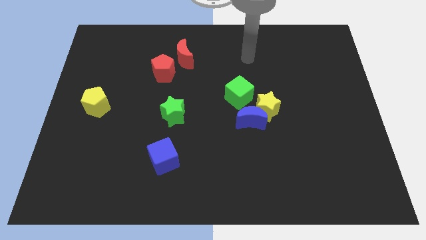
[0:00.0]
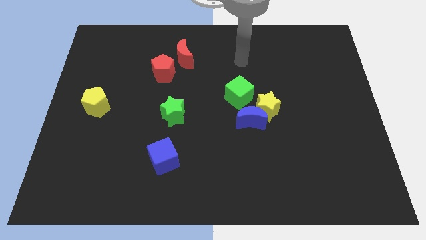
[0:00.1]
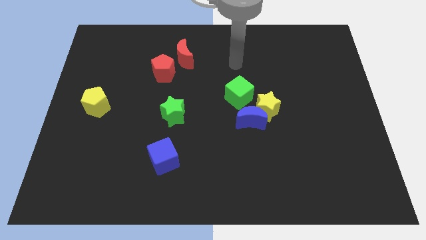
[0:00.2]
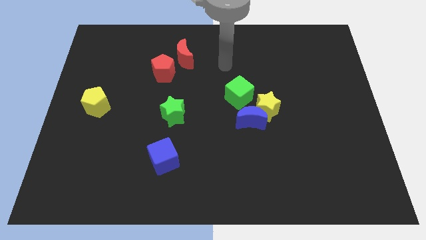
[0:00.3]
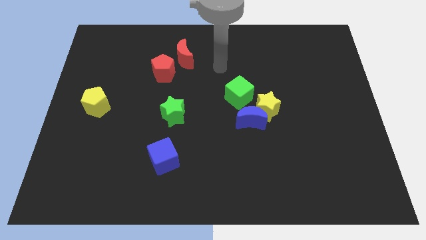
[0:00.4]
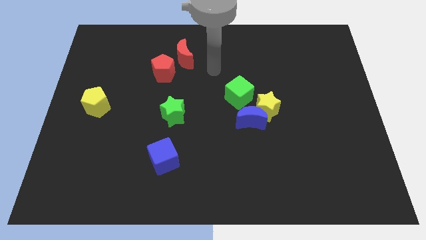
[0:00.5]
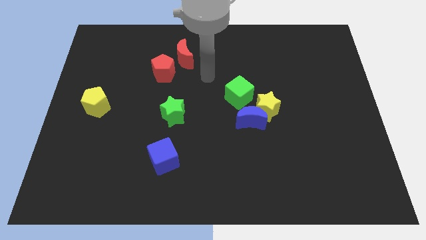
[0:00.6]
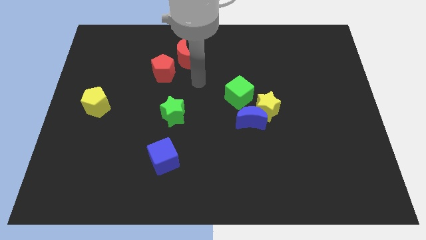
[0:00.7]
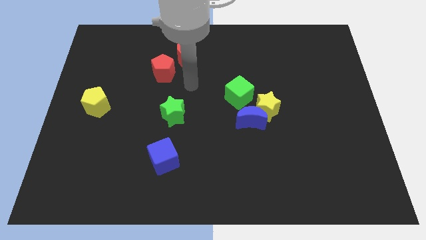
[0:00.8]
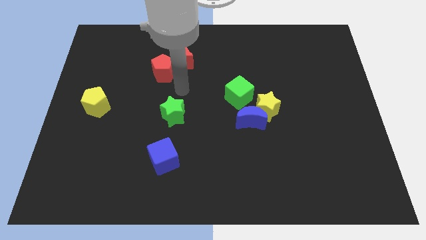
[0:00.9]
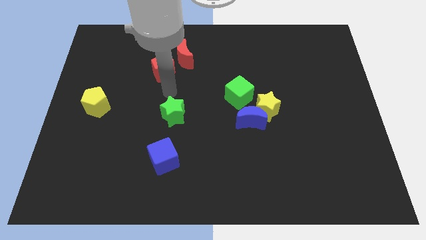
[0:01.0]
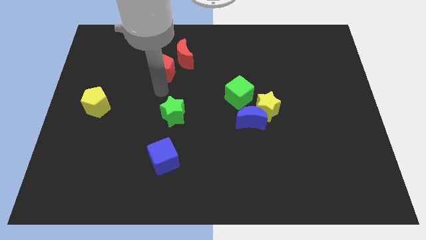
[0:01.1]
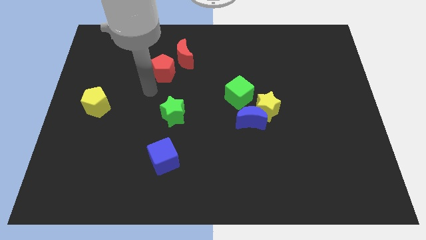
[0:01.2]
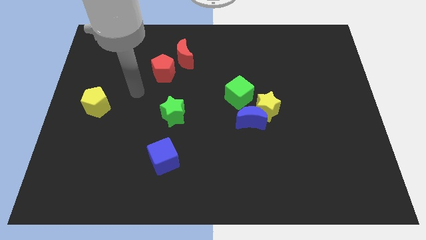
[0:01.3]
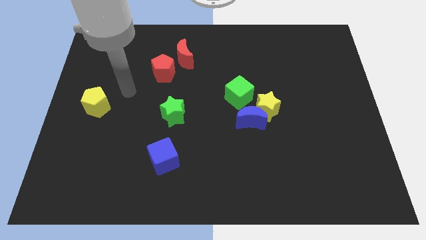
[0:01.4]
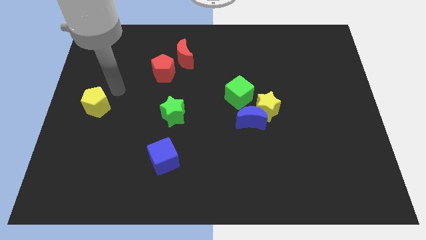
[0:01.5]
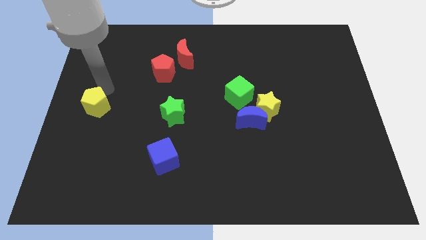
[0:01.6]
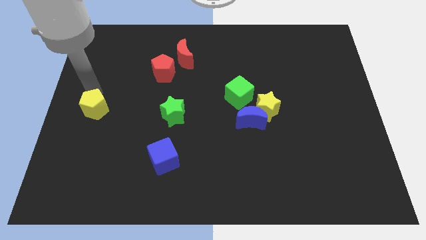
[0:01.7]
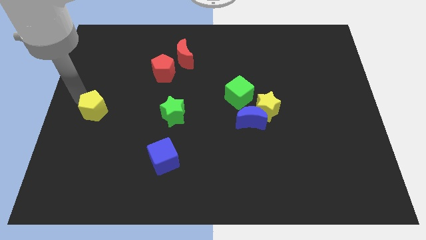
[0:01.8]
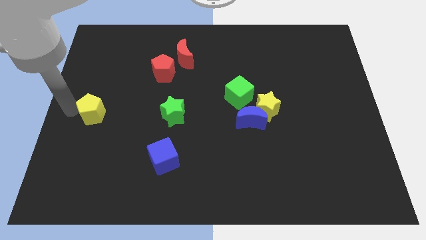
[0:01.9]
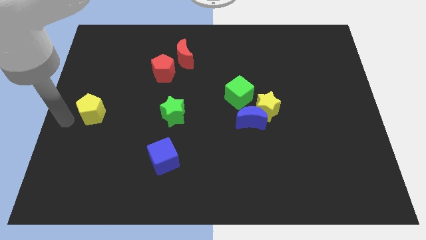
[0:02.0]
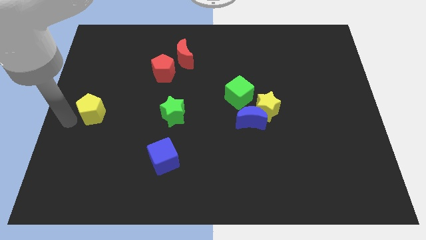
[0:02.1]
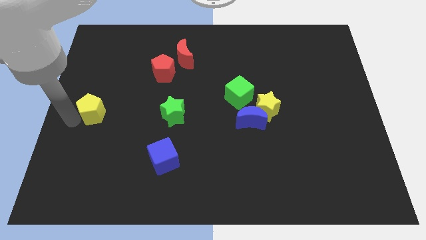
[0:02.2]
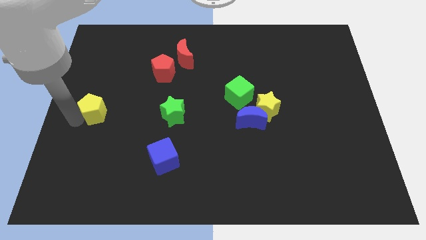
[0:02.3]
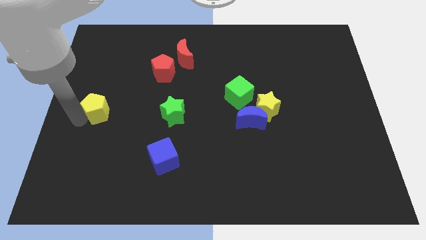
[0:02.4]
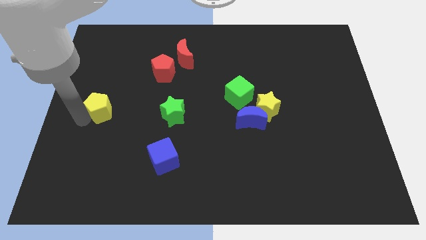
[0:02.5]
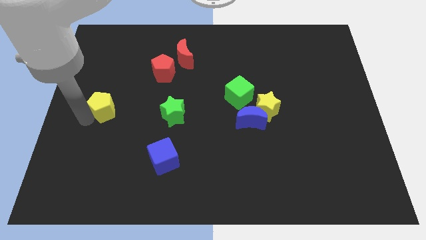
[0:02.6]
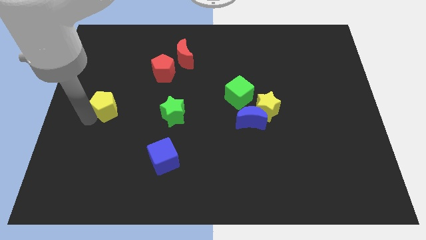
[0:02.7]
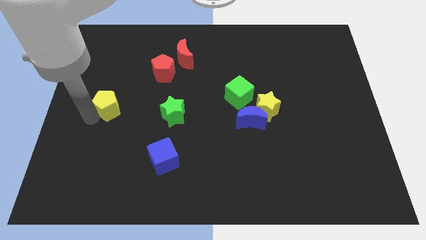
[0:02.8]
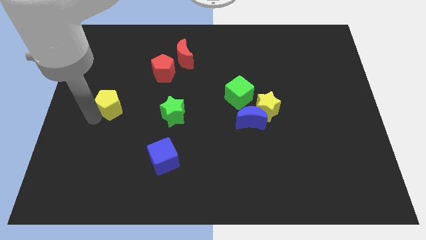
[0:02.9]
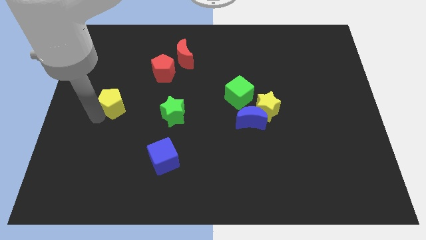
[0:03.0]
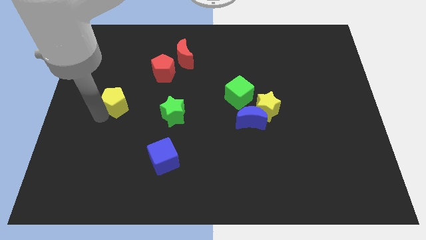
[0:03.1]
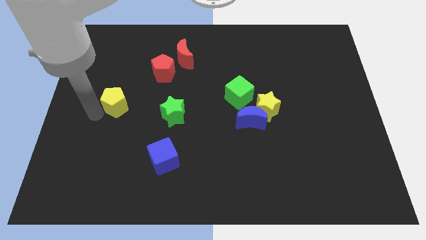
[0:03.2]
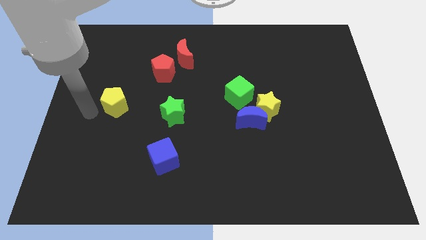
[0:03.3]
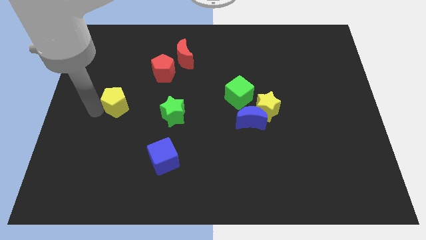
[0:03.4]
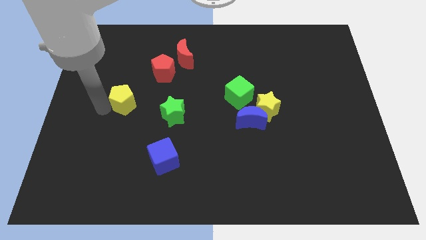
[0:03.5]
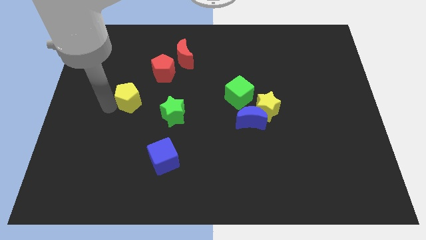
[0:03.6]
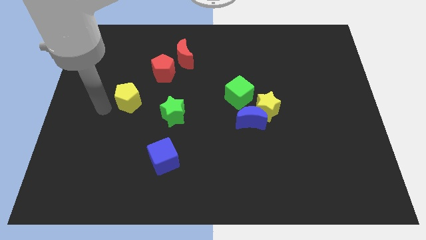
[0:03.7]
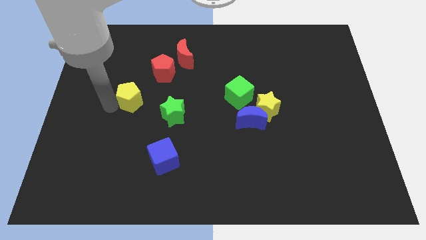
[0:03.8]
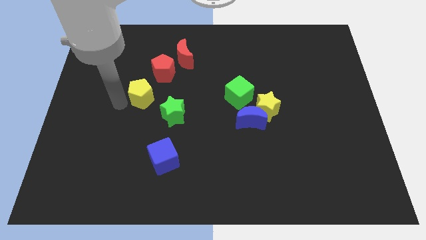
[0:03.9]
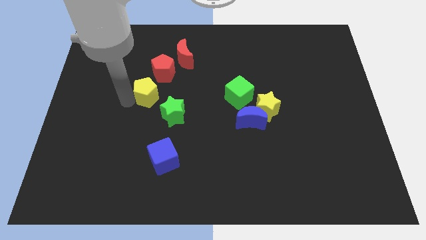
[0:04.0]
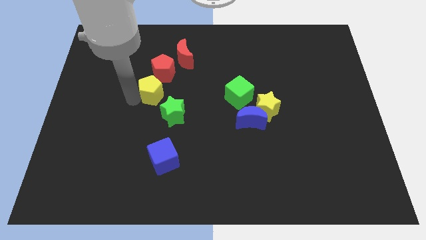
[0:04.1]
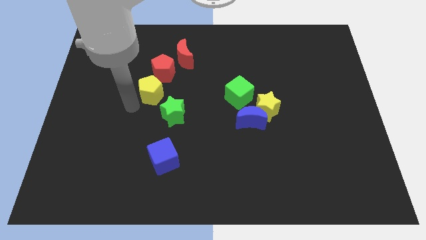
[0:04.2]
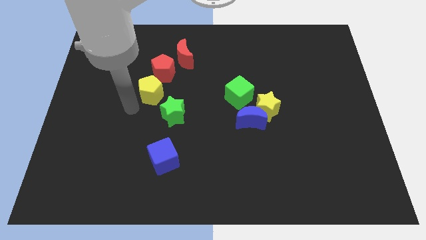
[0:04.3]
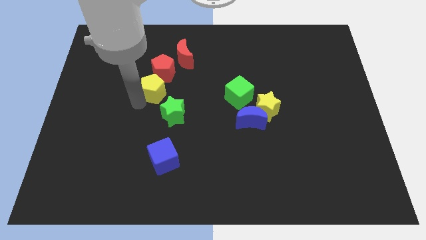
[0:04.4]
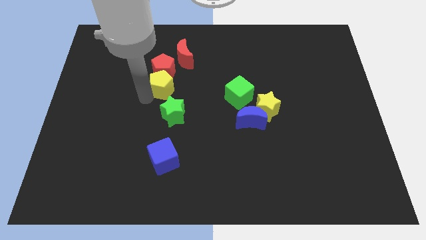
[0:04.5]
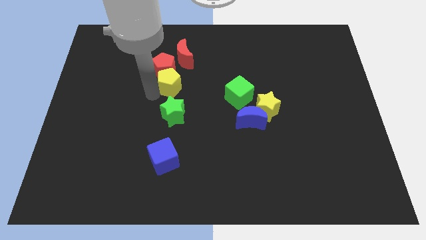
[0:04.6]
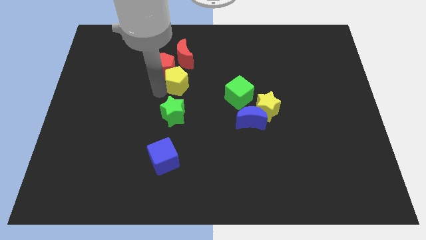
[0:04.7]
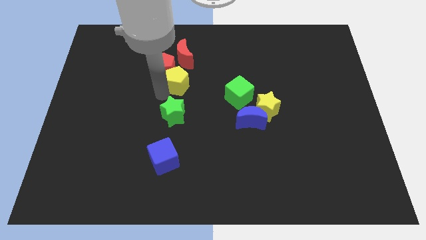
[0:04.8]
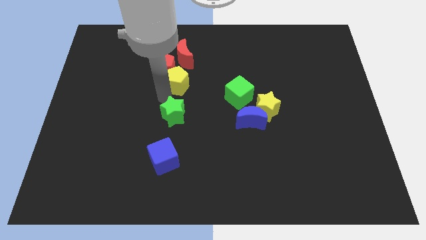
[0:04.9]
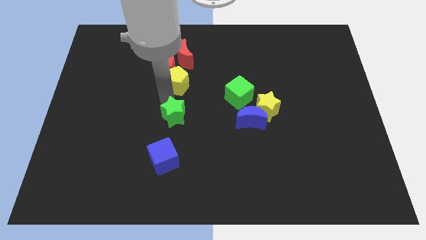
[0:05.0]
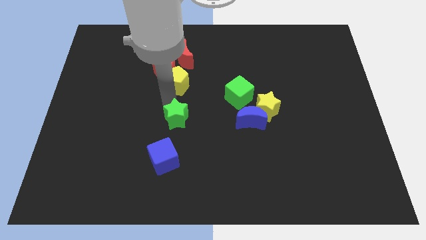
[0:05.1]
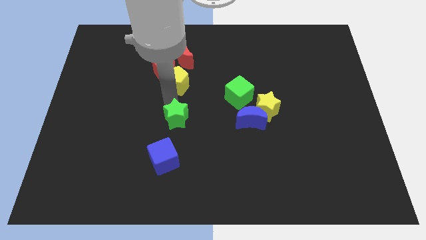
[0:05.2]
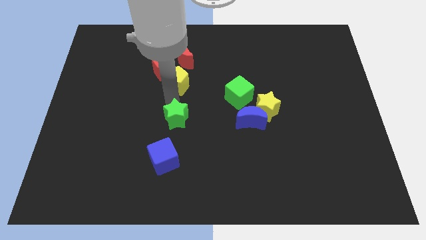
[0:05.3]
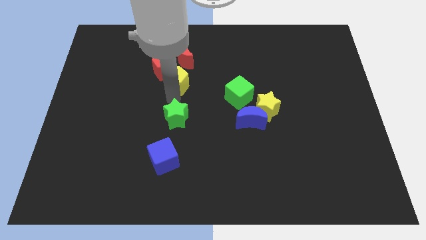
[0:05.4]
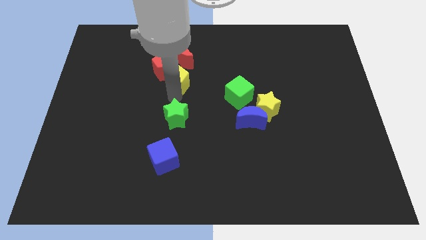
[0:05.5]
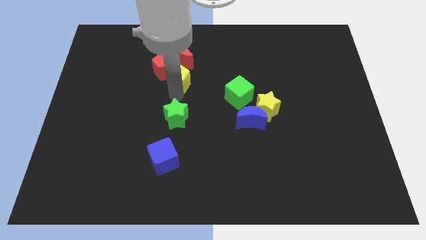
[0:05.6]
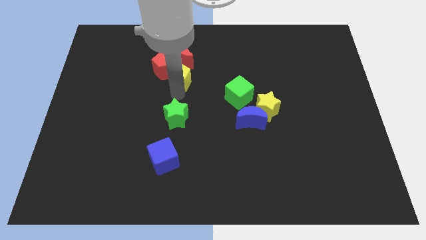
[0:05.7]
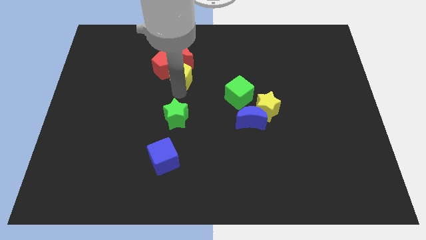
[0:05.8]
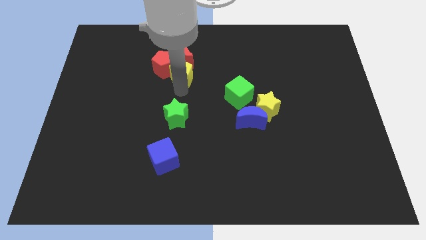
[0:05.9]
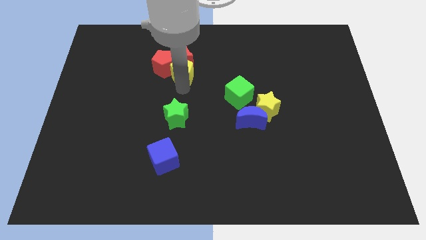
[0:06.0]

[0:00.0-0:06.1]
push the yellow pentagon to the red moon

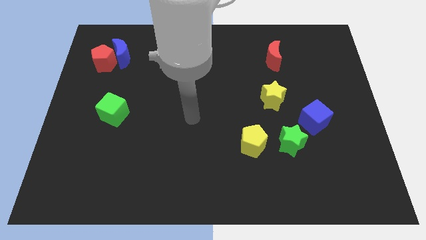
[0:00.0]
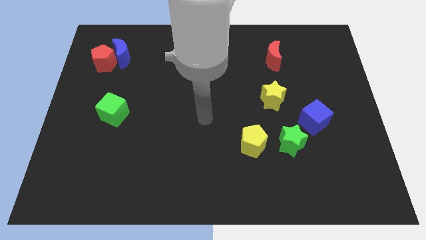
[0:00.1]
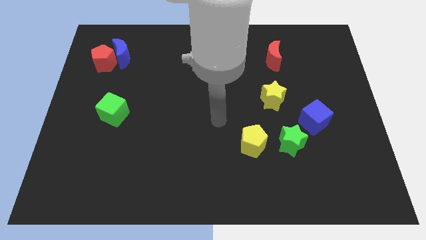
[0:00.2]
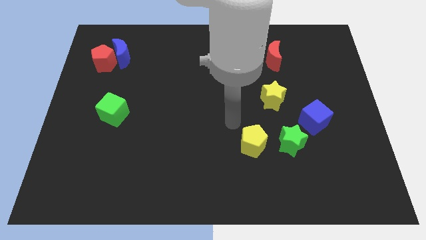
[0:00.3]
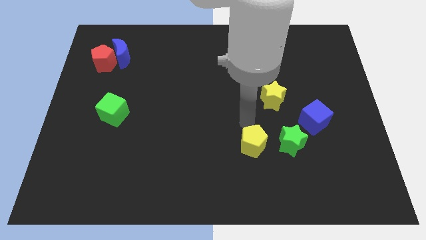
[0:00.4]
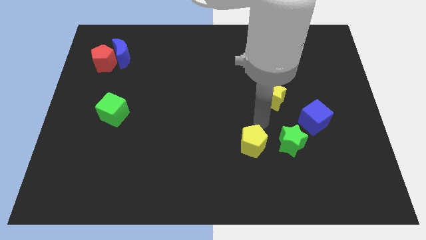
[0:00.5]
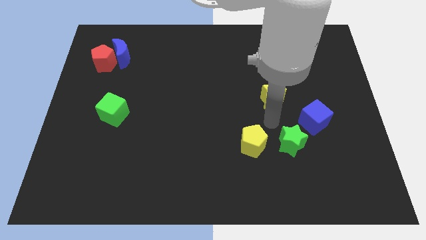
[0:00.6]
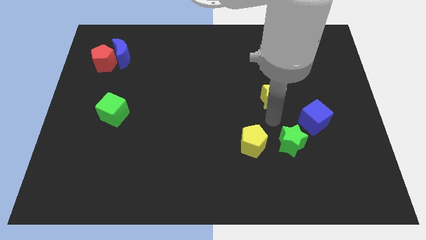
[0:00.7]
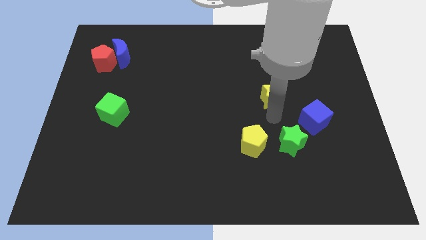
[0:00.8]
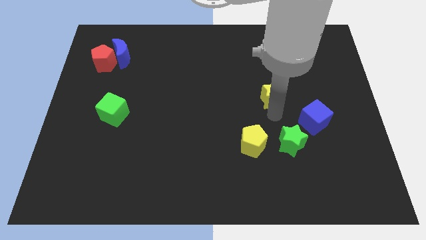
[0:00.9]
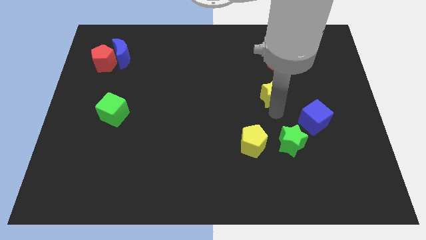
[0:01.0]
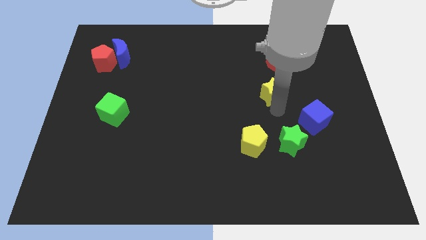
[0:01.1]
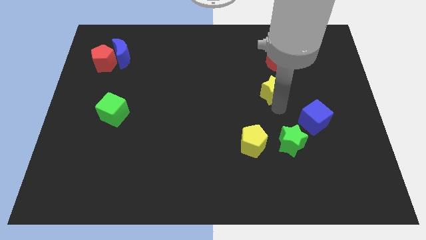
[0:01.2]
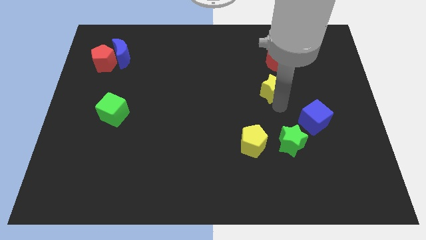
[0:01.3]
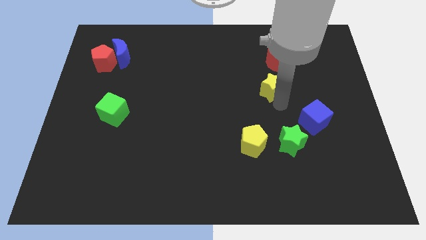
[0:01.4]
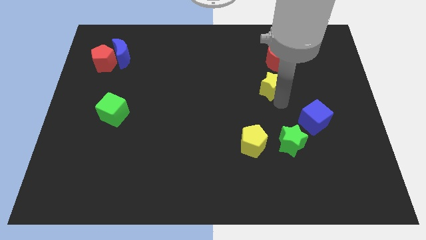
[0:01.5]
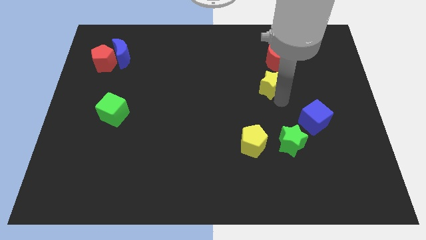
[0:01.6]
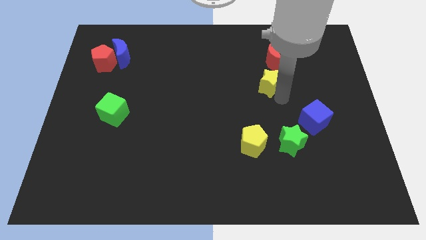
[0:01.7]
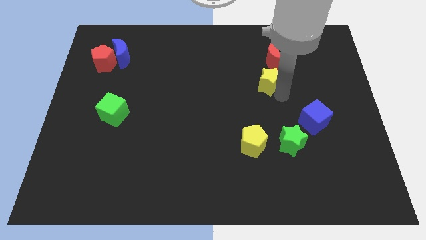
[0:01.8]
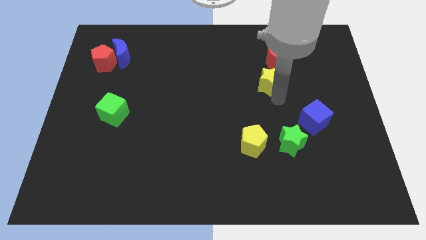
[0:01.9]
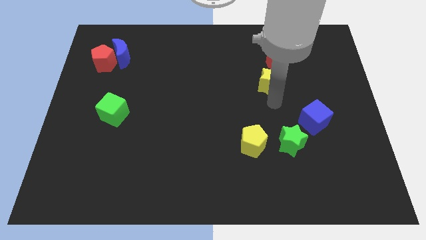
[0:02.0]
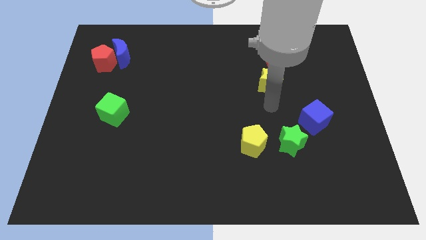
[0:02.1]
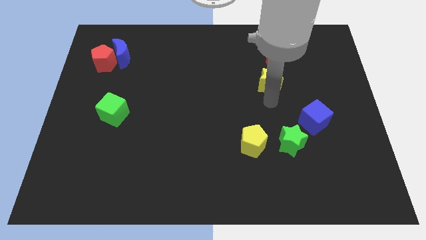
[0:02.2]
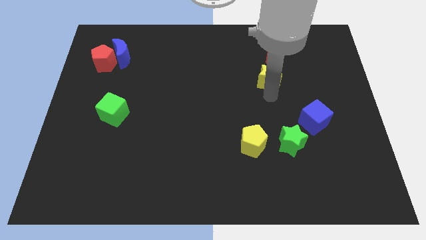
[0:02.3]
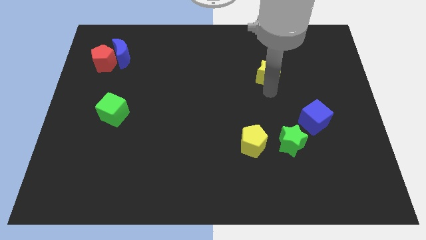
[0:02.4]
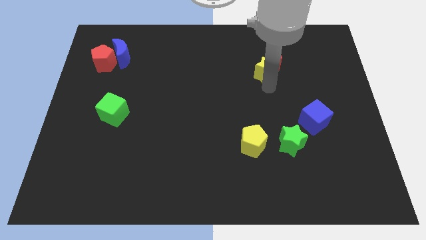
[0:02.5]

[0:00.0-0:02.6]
move the yellow star to the red moon
